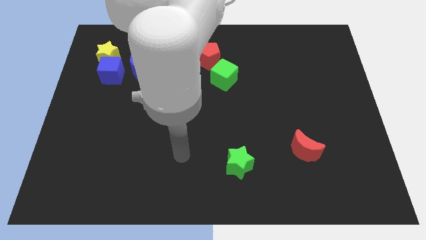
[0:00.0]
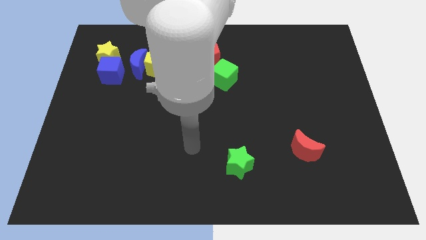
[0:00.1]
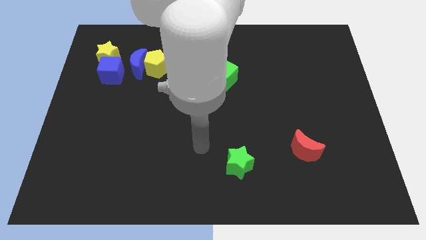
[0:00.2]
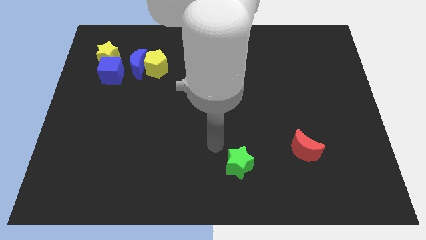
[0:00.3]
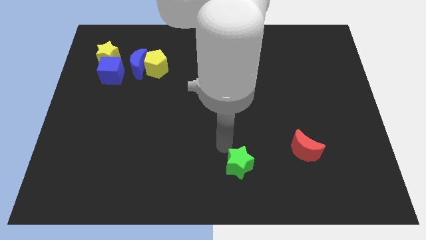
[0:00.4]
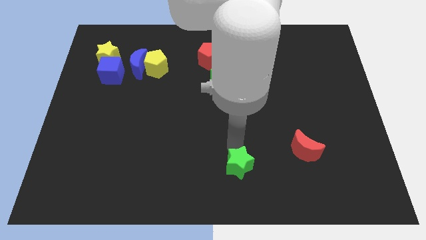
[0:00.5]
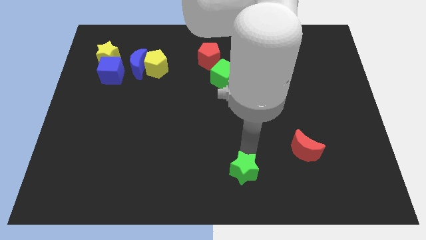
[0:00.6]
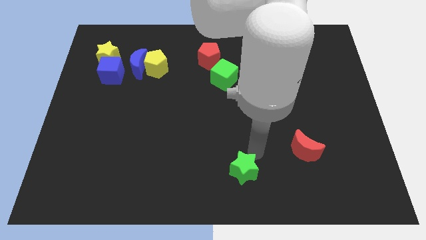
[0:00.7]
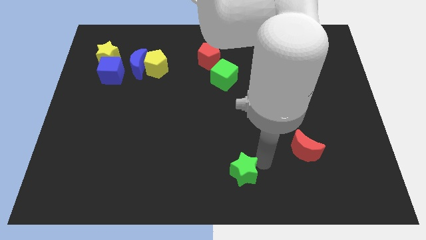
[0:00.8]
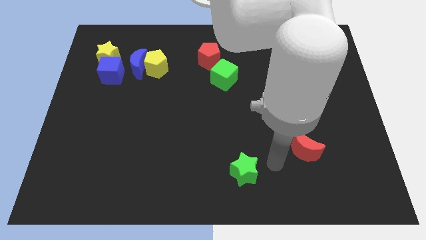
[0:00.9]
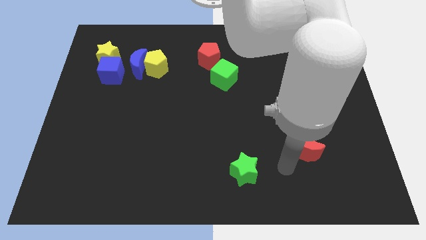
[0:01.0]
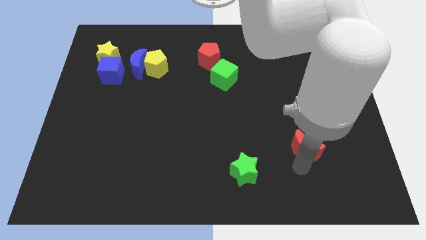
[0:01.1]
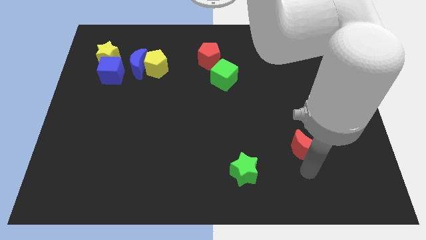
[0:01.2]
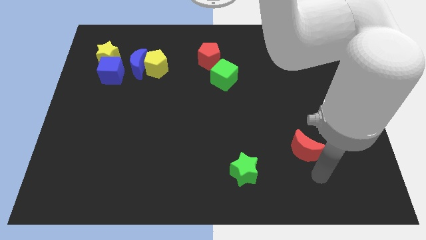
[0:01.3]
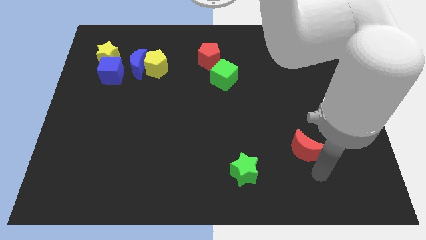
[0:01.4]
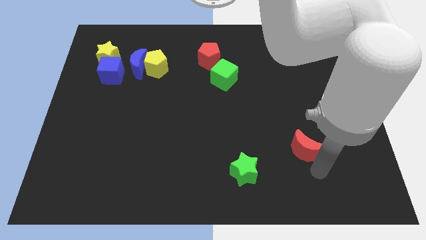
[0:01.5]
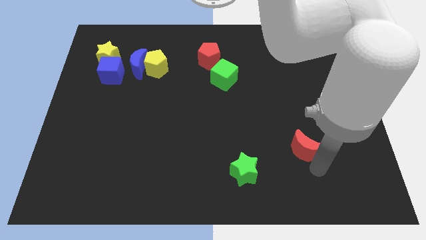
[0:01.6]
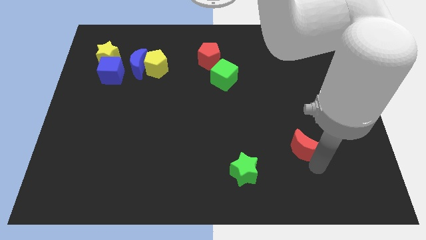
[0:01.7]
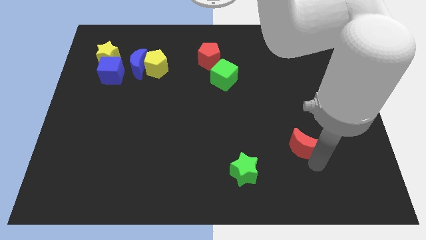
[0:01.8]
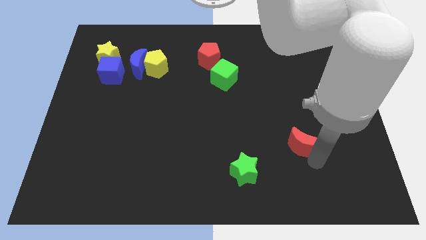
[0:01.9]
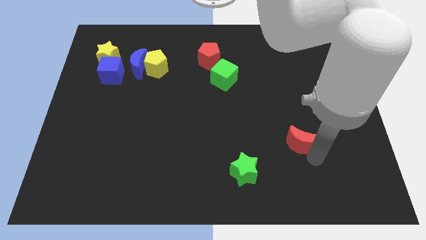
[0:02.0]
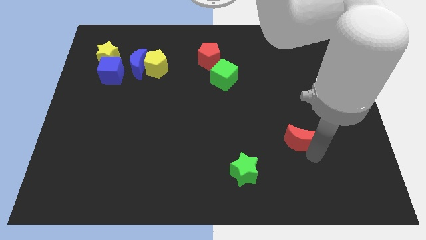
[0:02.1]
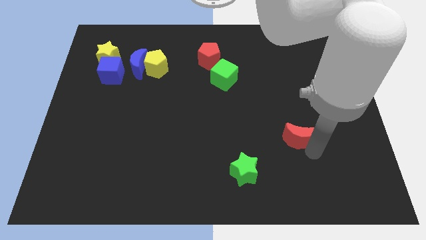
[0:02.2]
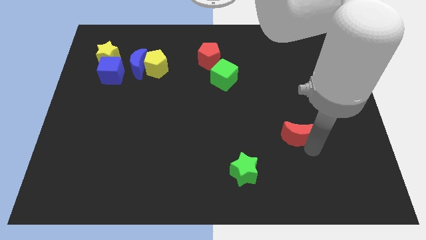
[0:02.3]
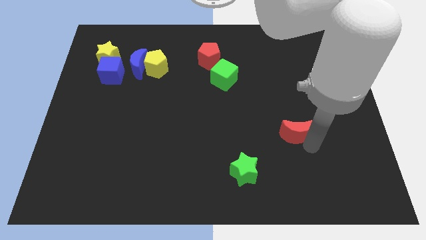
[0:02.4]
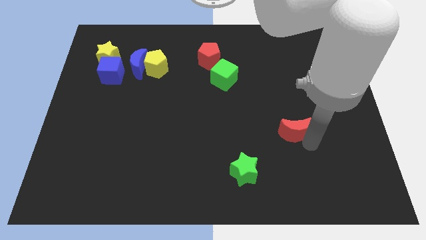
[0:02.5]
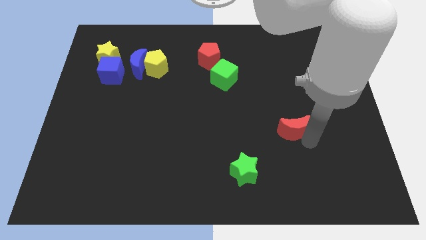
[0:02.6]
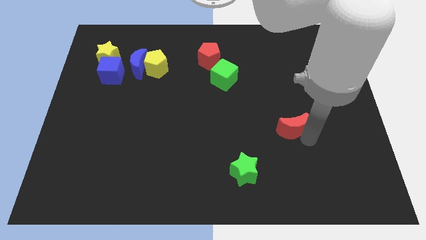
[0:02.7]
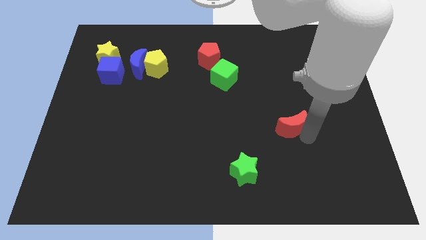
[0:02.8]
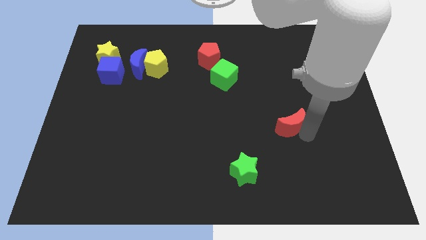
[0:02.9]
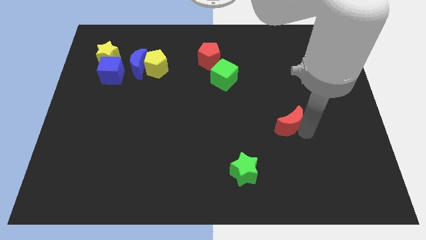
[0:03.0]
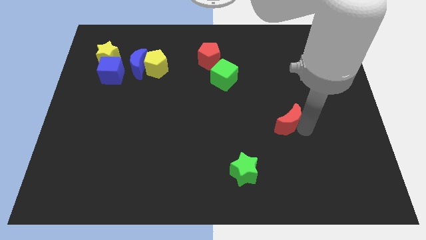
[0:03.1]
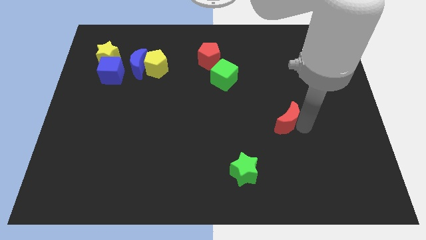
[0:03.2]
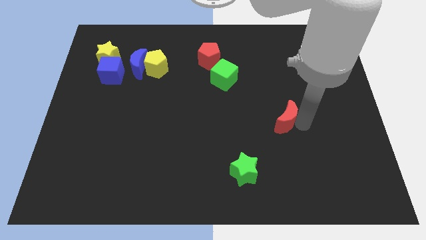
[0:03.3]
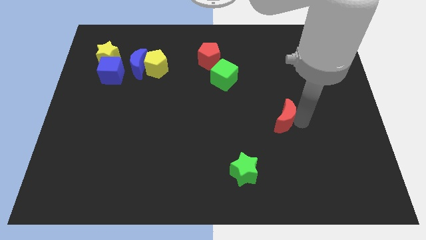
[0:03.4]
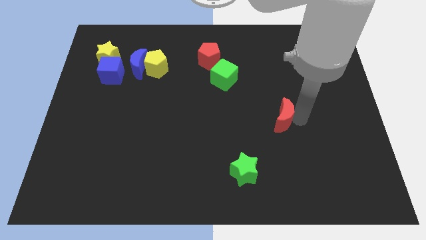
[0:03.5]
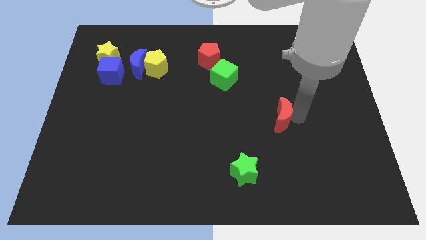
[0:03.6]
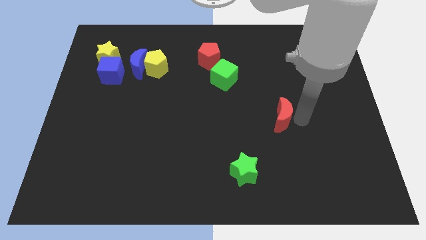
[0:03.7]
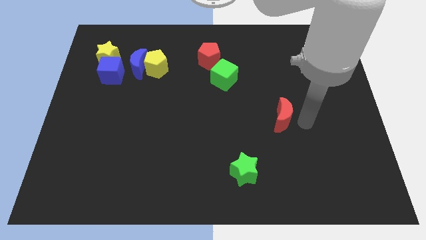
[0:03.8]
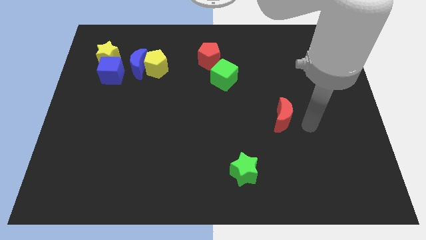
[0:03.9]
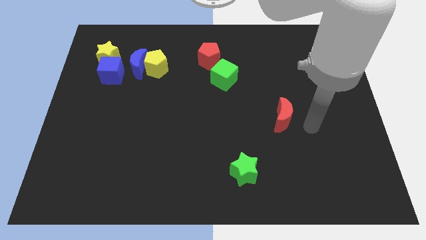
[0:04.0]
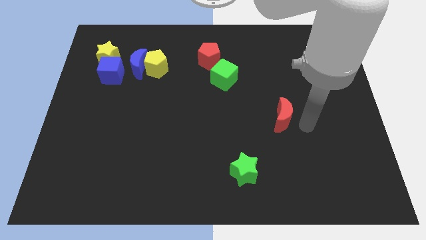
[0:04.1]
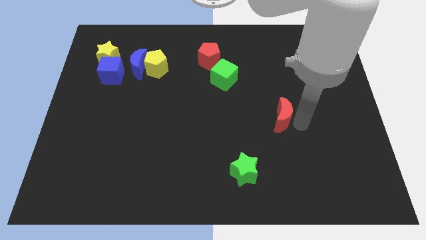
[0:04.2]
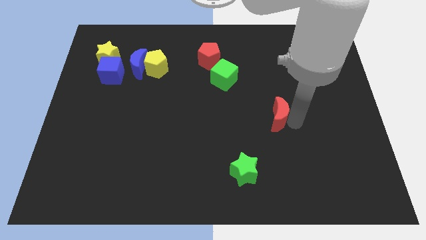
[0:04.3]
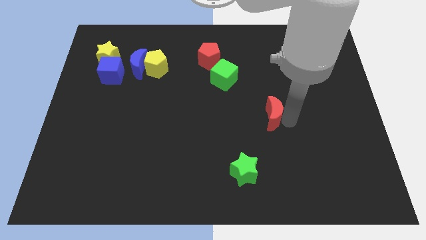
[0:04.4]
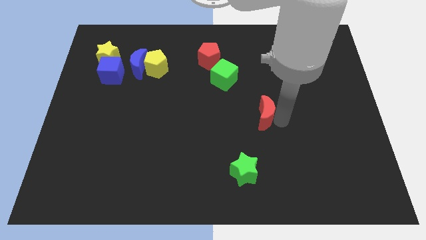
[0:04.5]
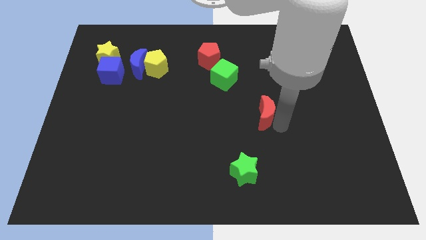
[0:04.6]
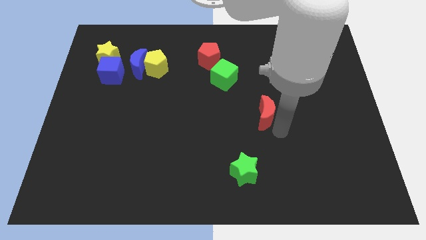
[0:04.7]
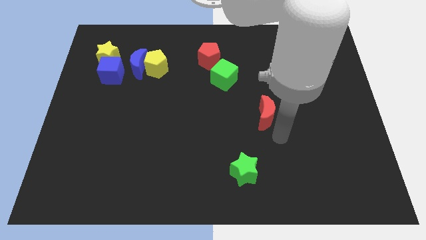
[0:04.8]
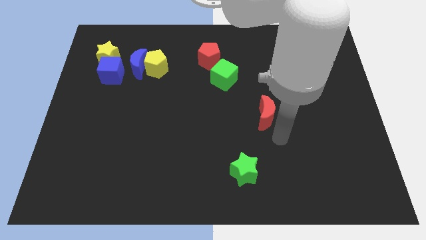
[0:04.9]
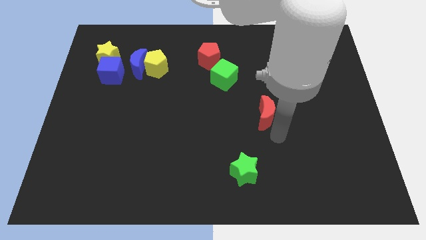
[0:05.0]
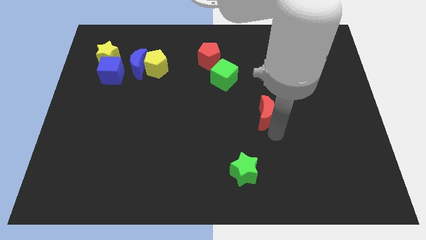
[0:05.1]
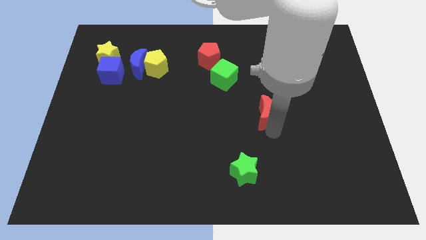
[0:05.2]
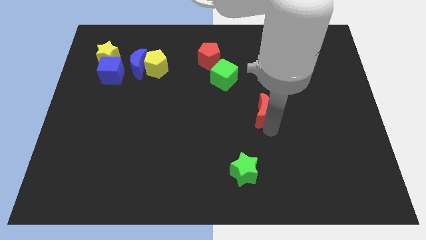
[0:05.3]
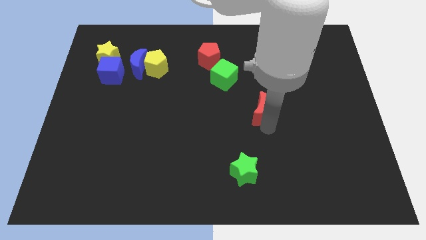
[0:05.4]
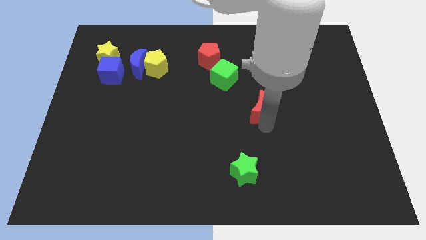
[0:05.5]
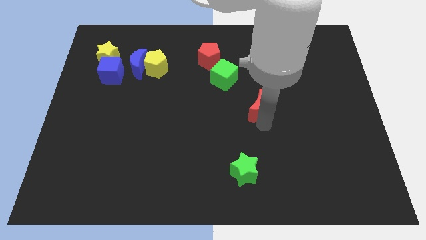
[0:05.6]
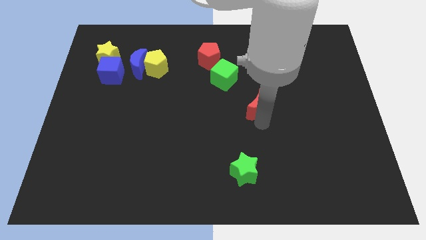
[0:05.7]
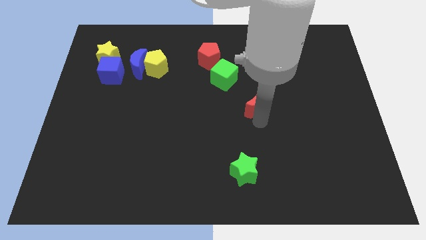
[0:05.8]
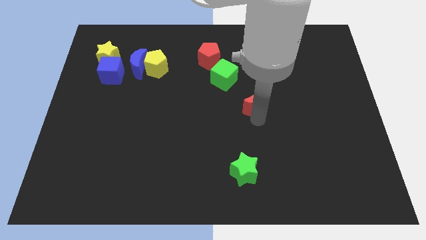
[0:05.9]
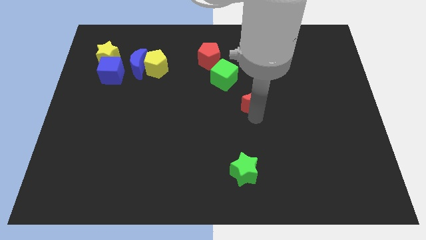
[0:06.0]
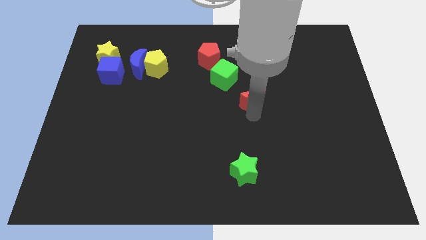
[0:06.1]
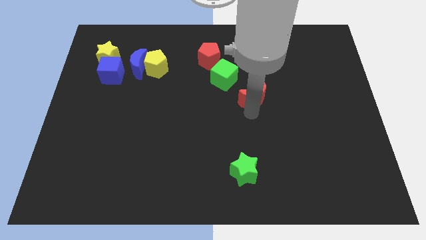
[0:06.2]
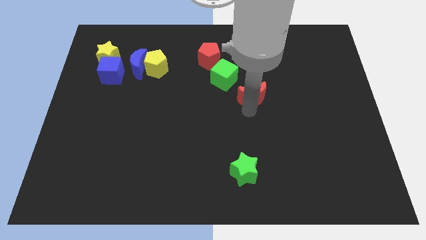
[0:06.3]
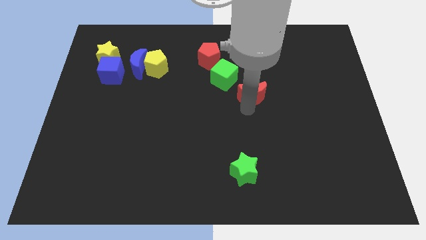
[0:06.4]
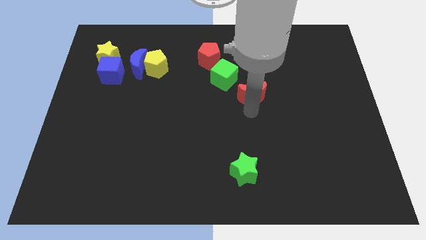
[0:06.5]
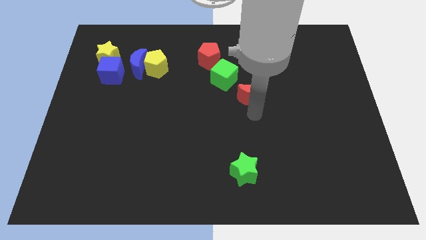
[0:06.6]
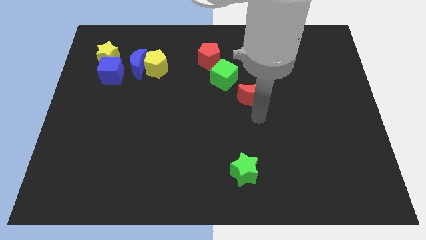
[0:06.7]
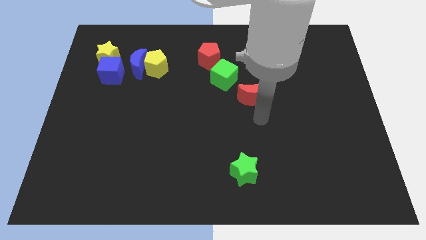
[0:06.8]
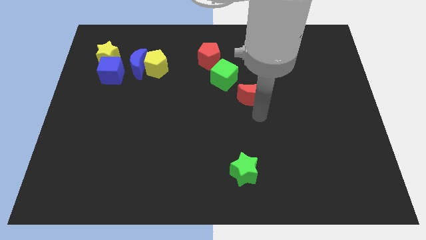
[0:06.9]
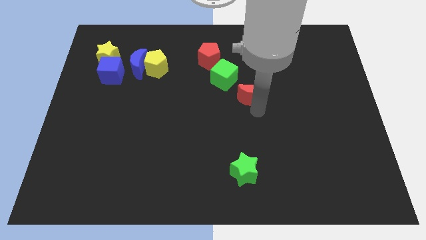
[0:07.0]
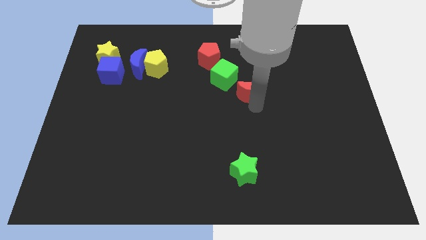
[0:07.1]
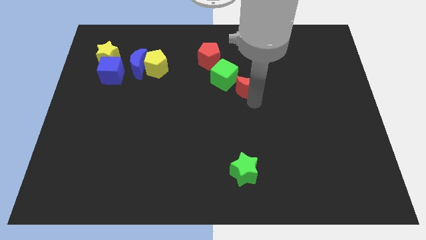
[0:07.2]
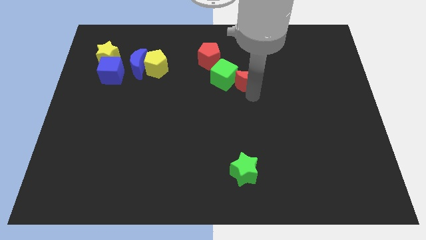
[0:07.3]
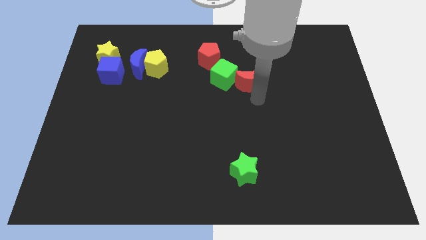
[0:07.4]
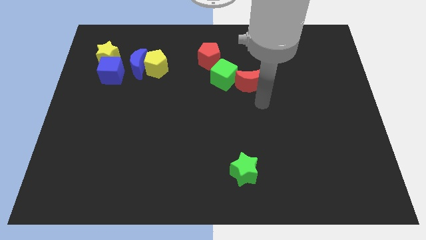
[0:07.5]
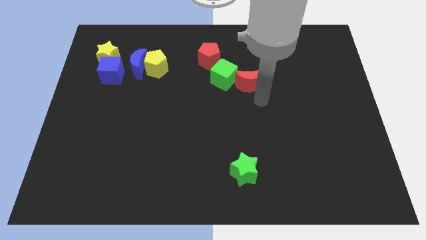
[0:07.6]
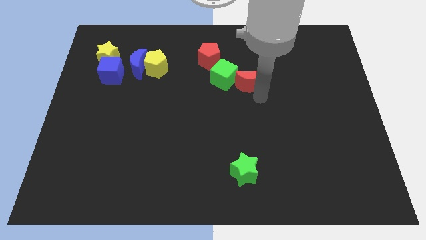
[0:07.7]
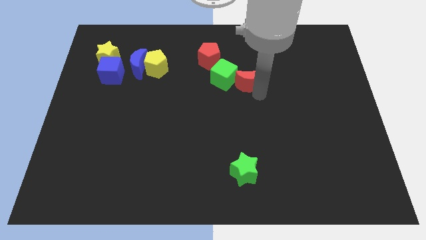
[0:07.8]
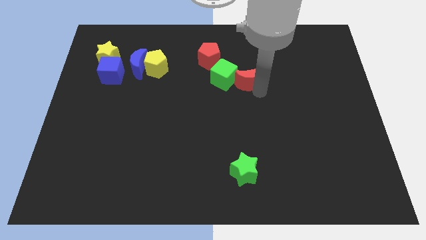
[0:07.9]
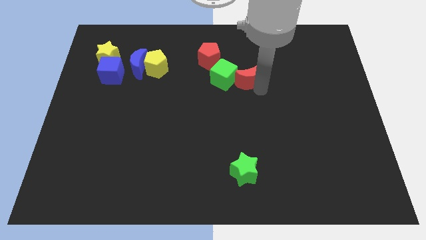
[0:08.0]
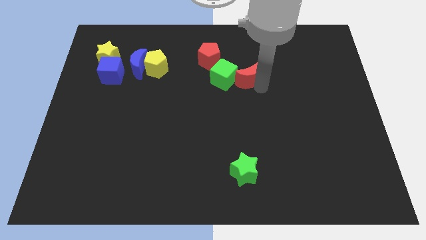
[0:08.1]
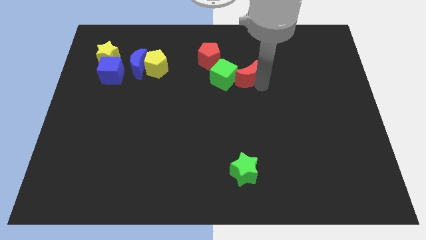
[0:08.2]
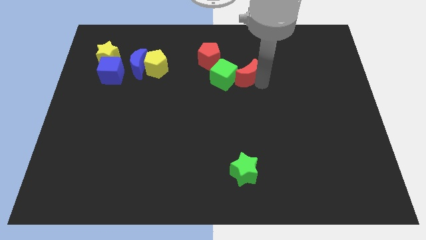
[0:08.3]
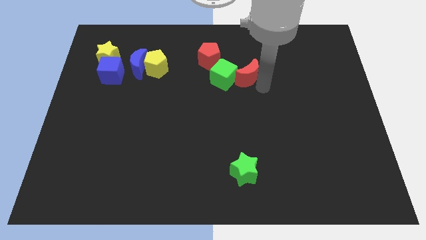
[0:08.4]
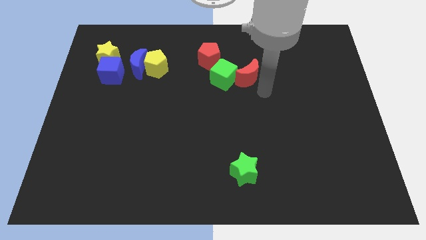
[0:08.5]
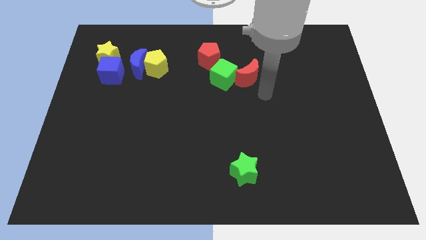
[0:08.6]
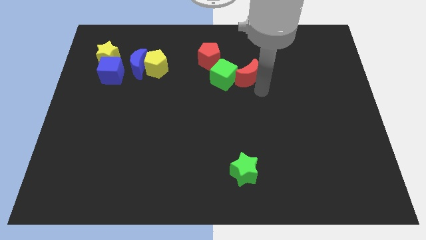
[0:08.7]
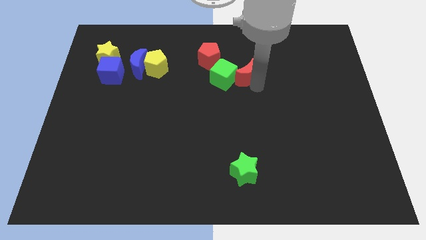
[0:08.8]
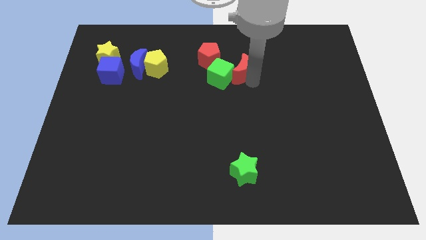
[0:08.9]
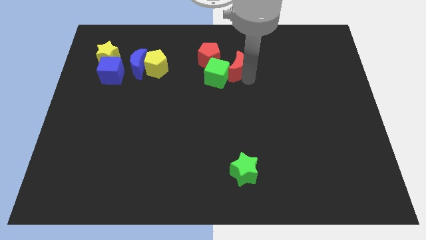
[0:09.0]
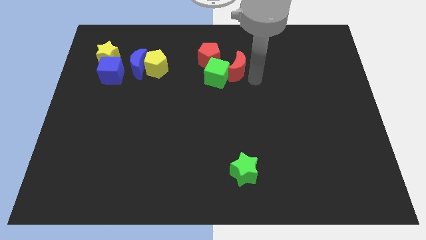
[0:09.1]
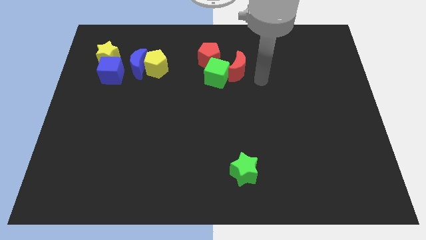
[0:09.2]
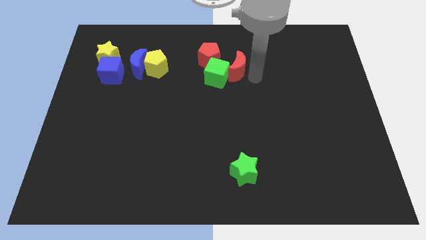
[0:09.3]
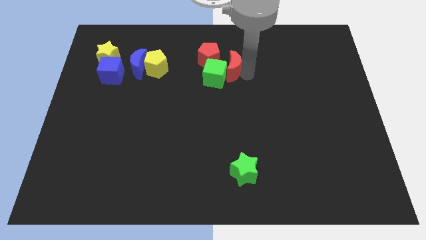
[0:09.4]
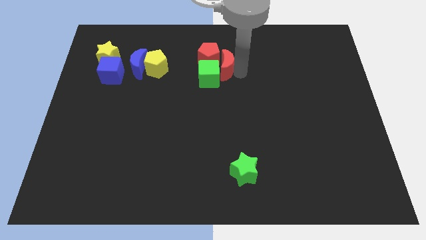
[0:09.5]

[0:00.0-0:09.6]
put the red moon towards the red pentagon
